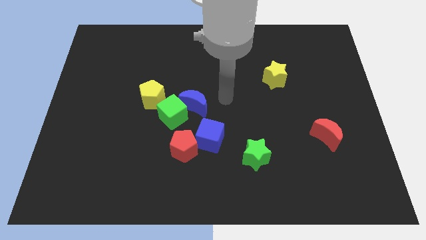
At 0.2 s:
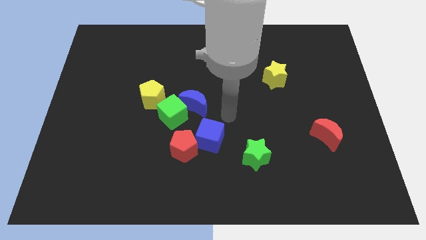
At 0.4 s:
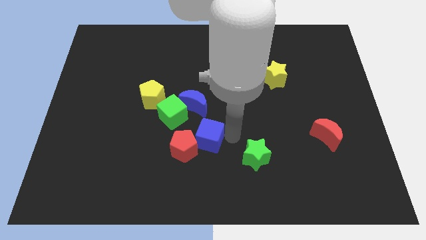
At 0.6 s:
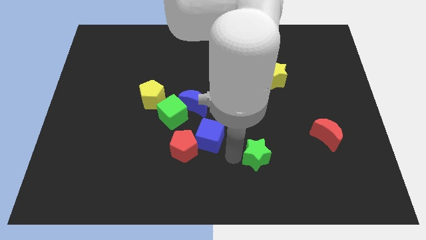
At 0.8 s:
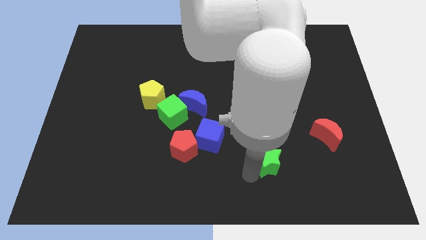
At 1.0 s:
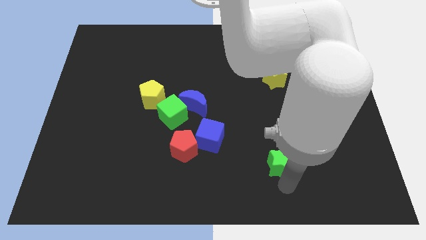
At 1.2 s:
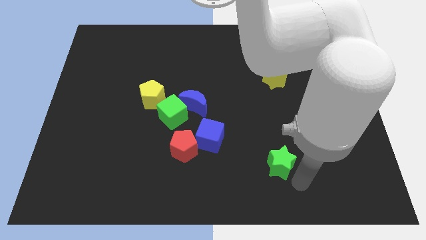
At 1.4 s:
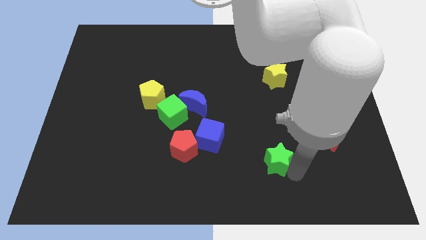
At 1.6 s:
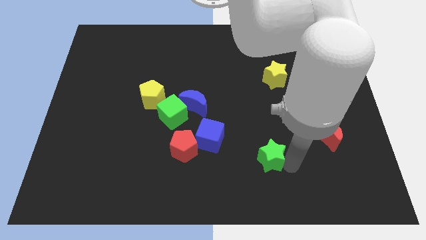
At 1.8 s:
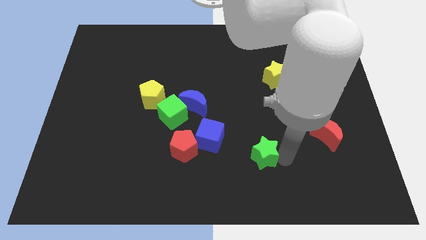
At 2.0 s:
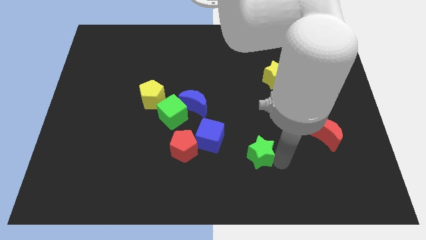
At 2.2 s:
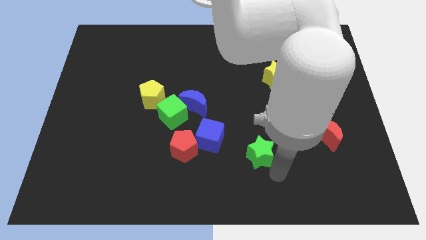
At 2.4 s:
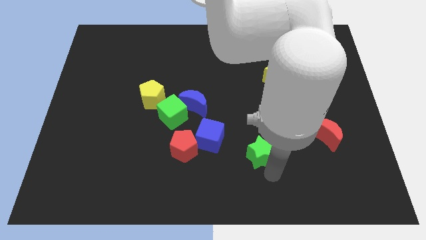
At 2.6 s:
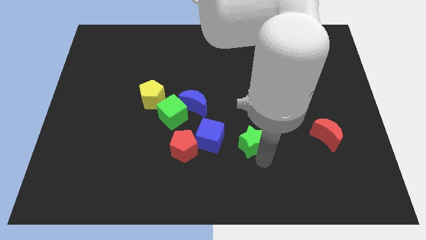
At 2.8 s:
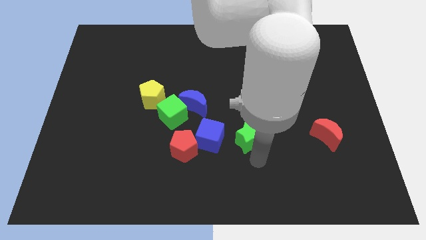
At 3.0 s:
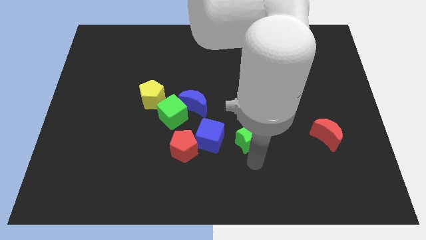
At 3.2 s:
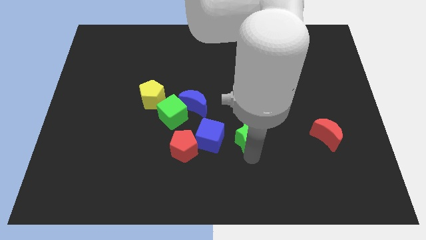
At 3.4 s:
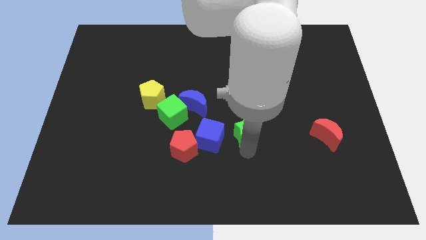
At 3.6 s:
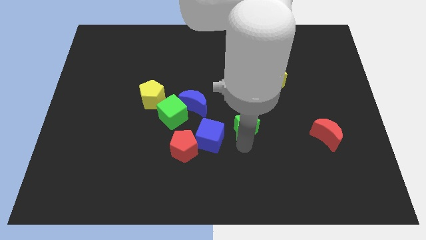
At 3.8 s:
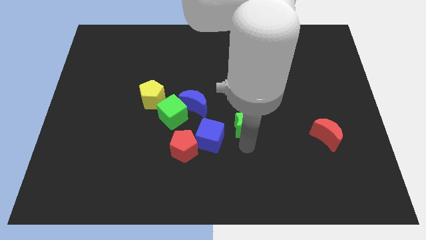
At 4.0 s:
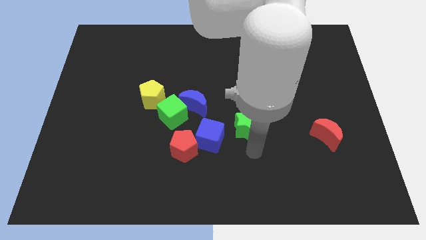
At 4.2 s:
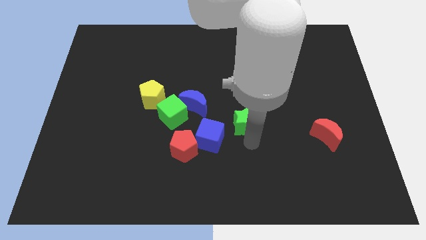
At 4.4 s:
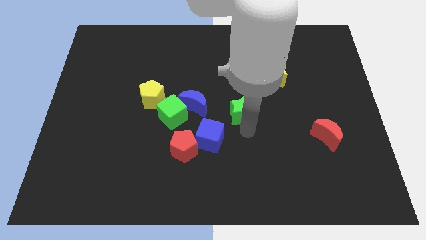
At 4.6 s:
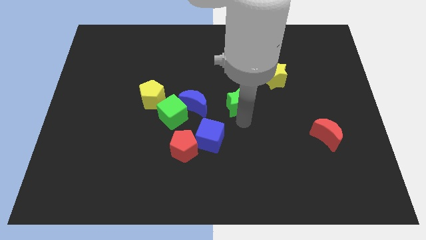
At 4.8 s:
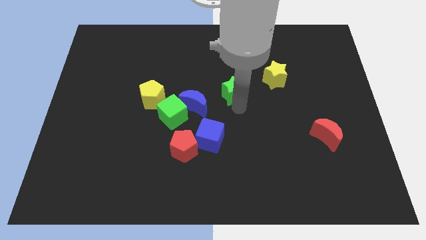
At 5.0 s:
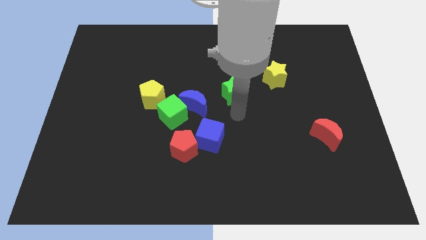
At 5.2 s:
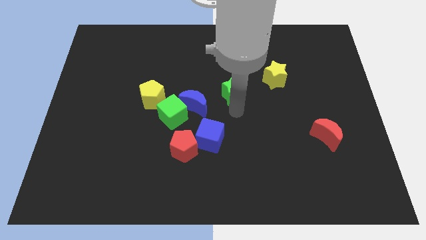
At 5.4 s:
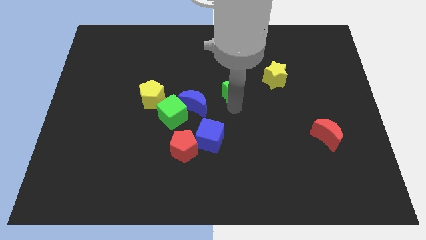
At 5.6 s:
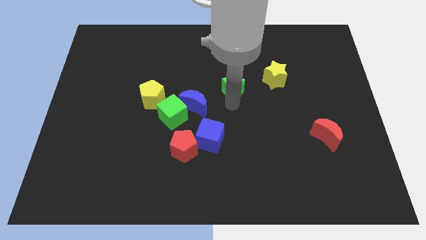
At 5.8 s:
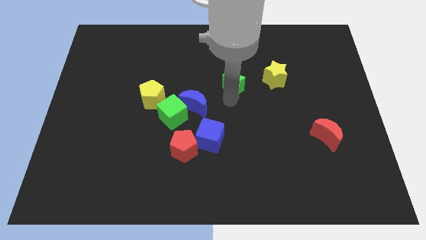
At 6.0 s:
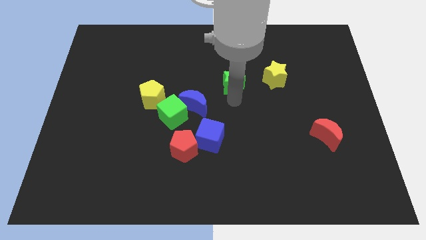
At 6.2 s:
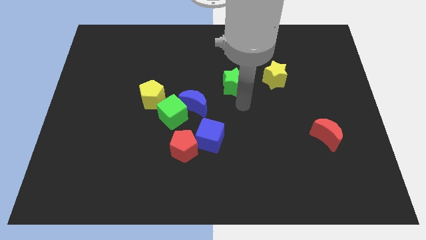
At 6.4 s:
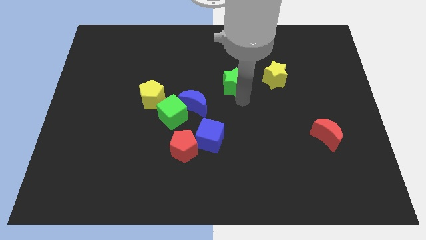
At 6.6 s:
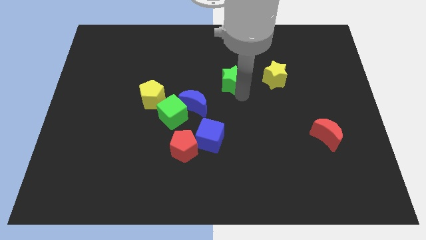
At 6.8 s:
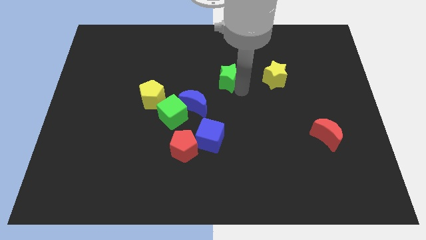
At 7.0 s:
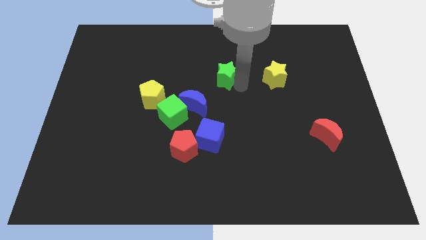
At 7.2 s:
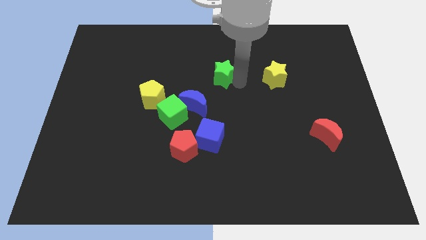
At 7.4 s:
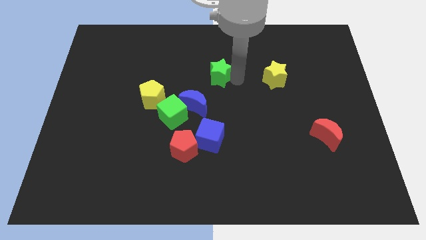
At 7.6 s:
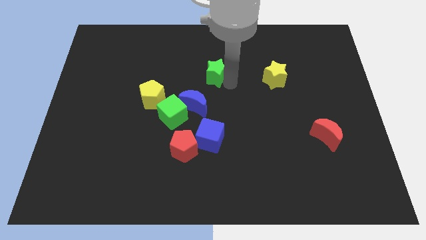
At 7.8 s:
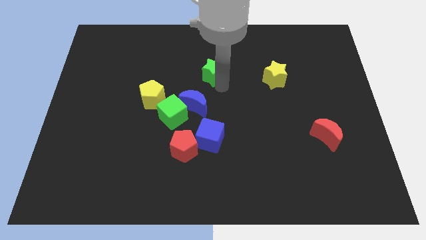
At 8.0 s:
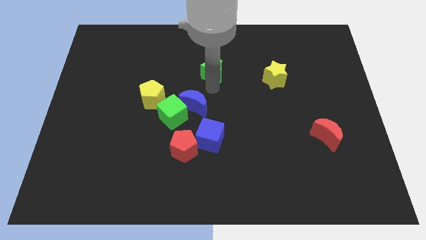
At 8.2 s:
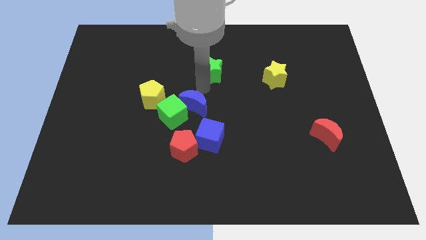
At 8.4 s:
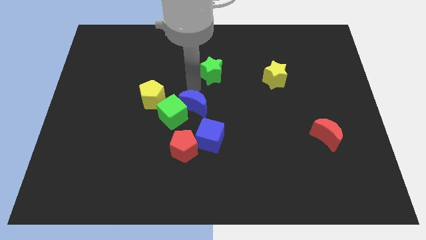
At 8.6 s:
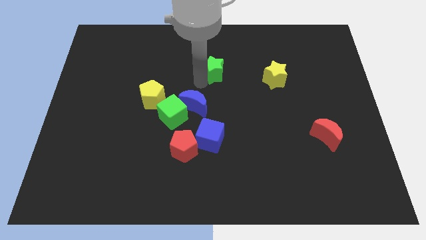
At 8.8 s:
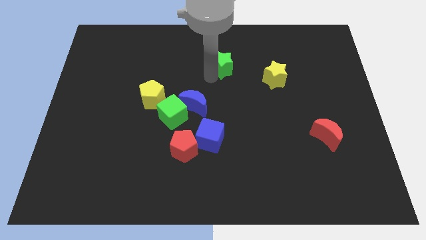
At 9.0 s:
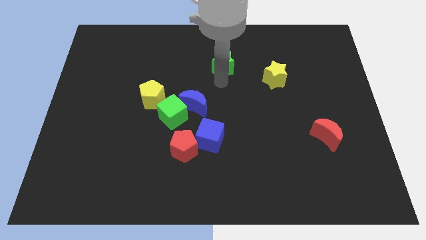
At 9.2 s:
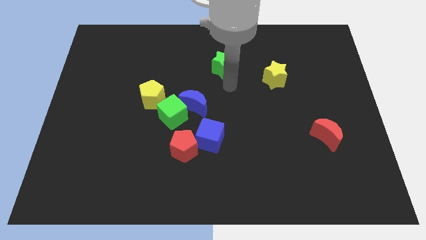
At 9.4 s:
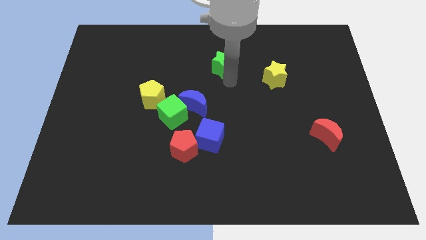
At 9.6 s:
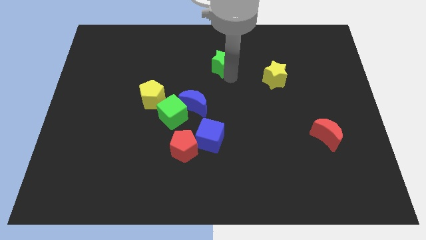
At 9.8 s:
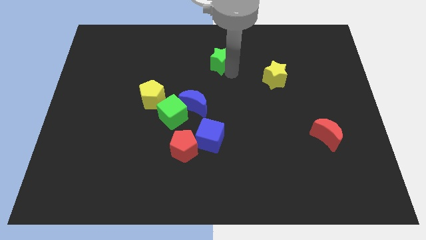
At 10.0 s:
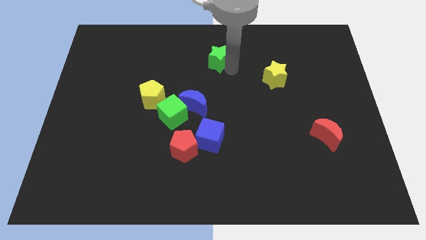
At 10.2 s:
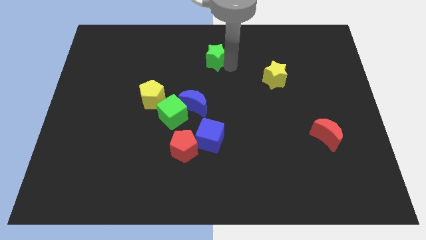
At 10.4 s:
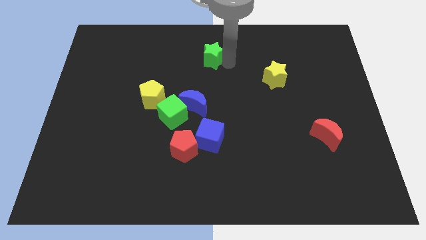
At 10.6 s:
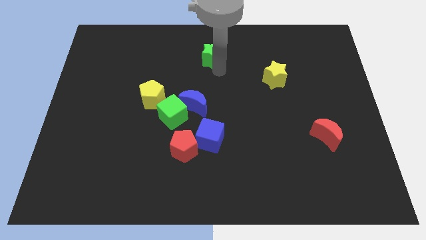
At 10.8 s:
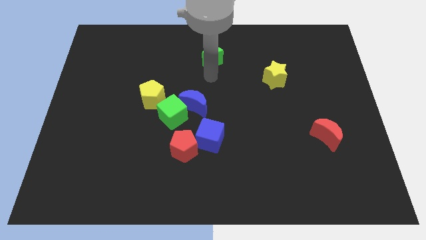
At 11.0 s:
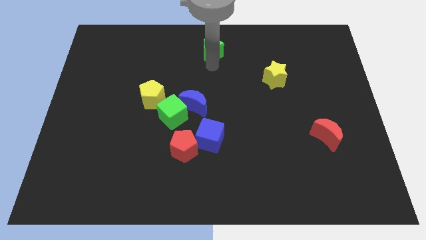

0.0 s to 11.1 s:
push the green star to the towards your base
